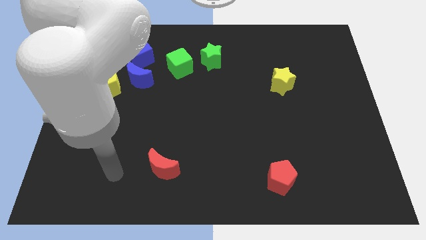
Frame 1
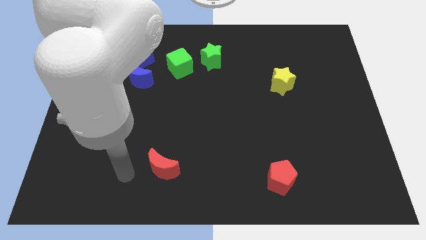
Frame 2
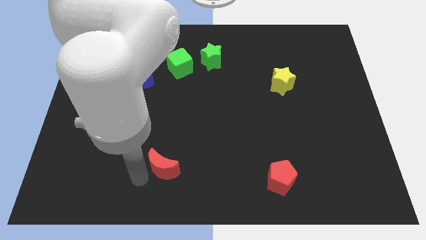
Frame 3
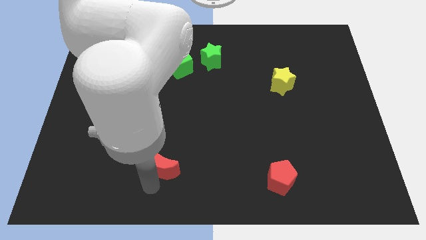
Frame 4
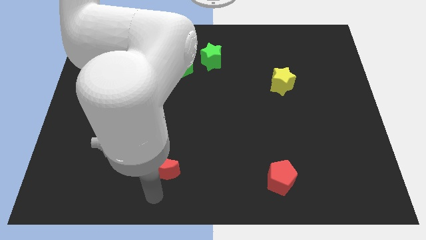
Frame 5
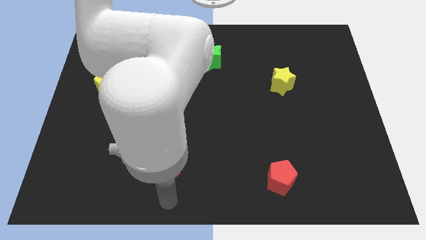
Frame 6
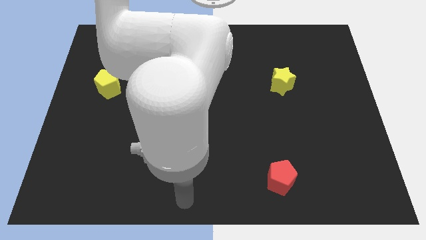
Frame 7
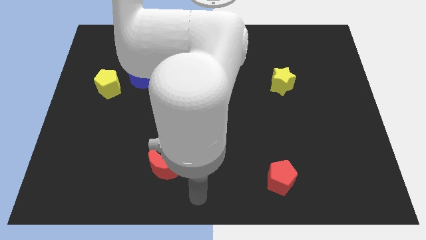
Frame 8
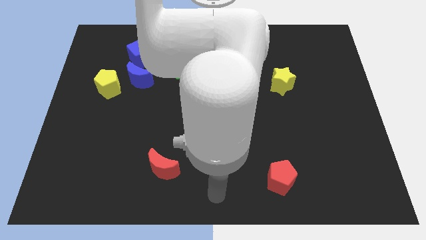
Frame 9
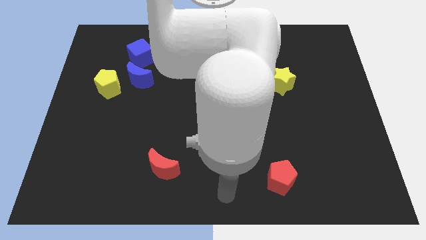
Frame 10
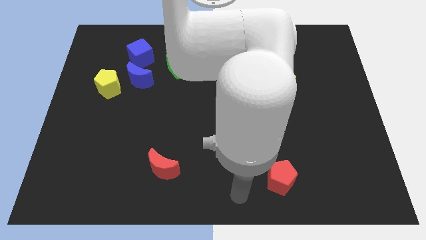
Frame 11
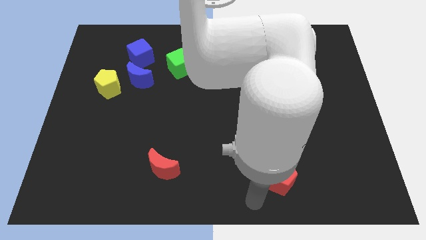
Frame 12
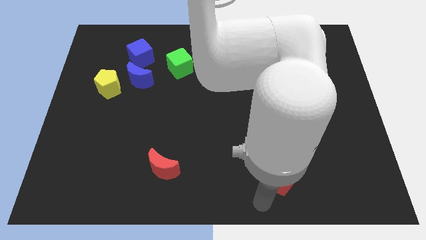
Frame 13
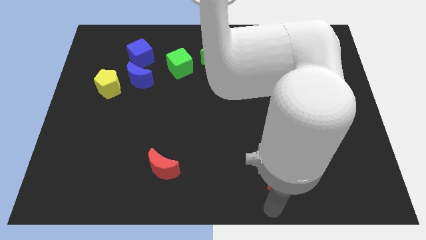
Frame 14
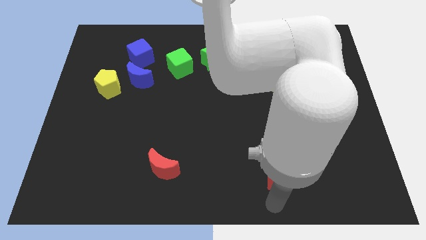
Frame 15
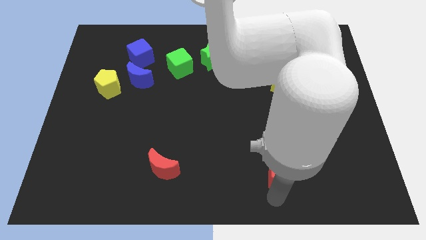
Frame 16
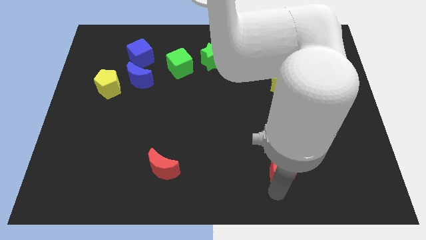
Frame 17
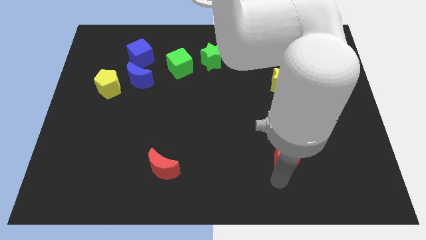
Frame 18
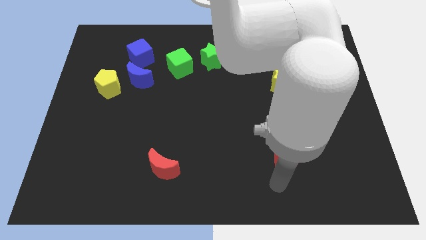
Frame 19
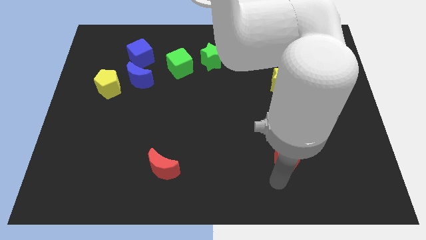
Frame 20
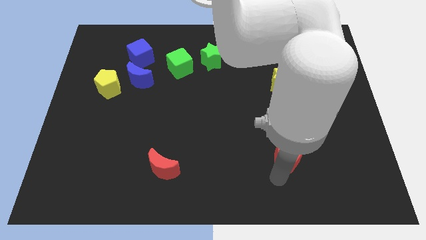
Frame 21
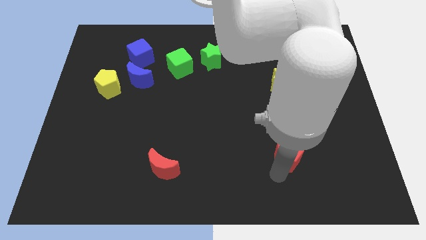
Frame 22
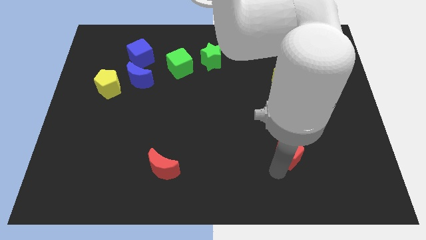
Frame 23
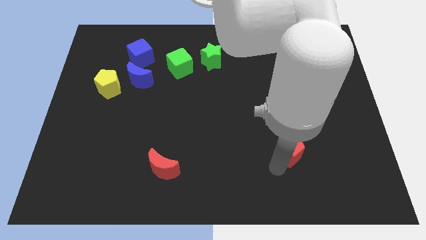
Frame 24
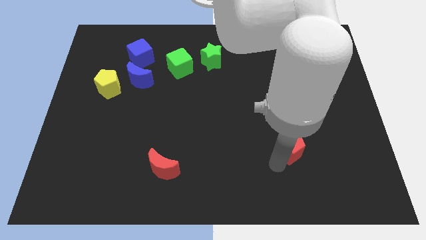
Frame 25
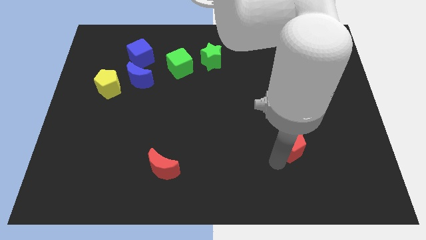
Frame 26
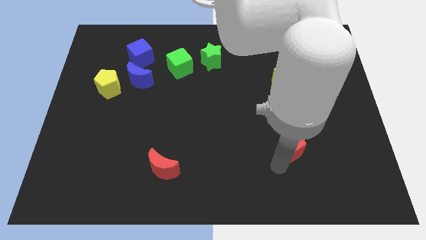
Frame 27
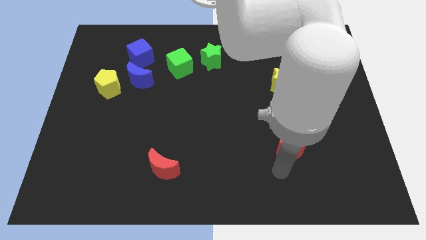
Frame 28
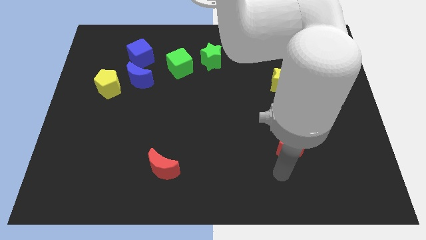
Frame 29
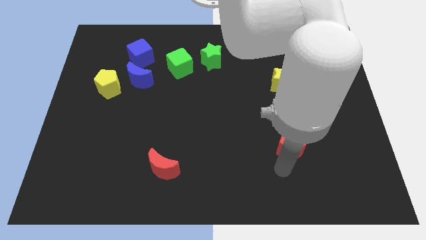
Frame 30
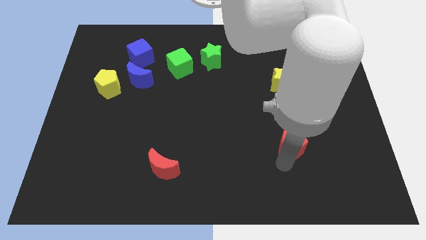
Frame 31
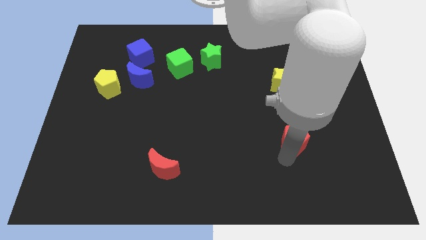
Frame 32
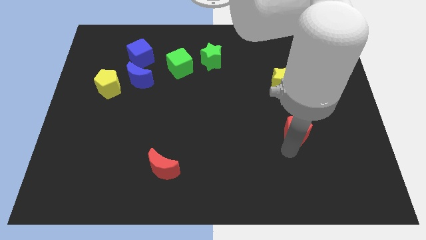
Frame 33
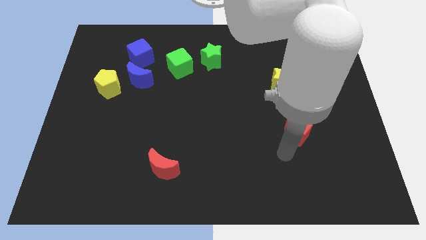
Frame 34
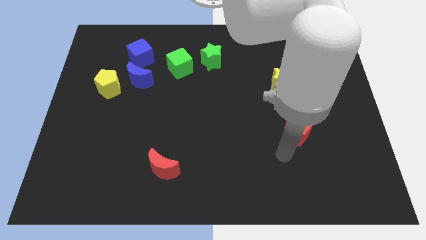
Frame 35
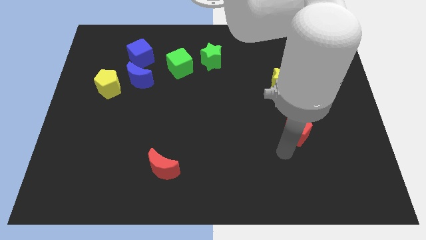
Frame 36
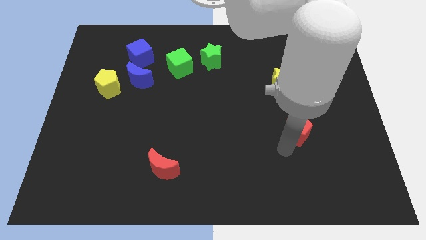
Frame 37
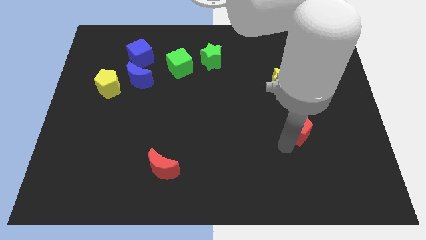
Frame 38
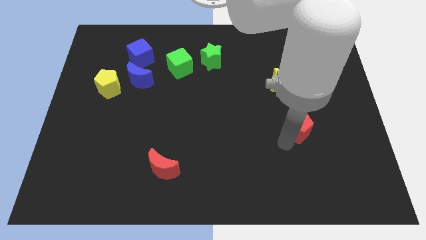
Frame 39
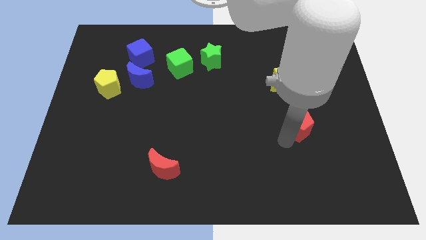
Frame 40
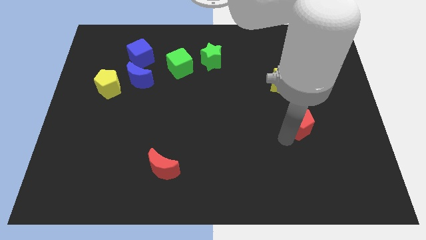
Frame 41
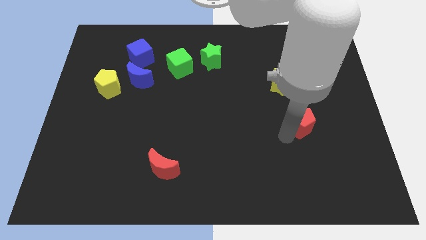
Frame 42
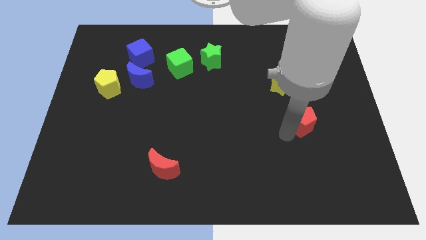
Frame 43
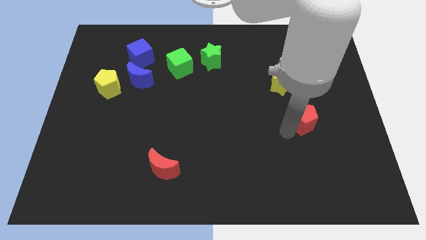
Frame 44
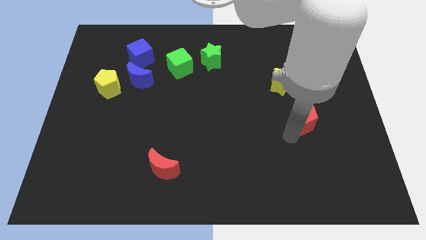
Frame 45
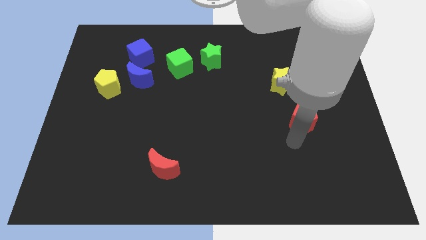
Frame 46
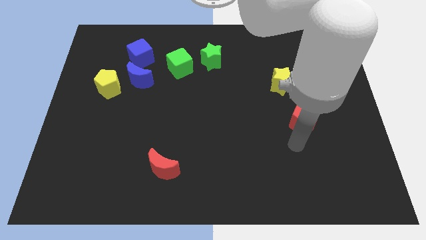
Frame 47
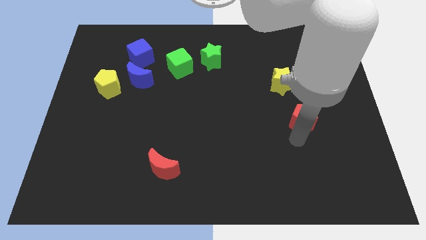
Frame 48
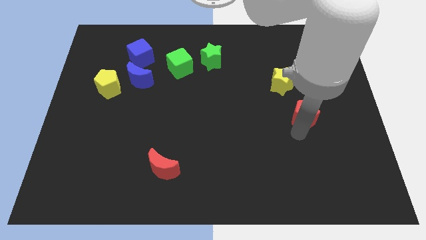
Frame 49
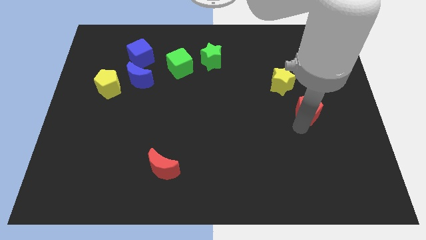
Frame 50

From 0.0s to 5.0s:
move the red pentagon to the bottom right side of the yellow star

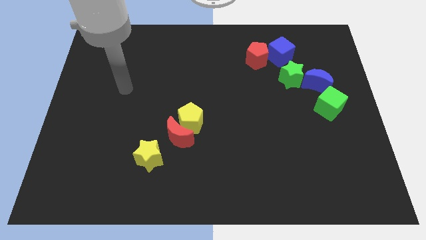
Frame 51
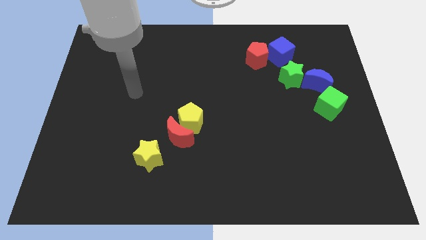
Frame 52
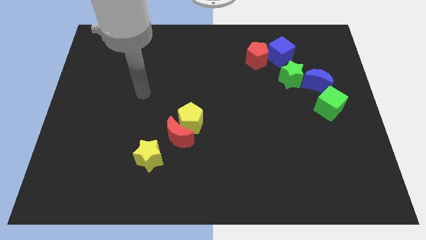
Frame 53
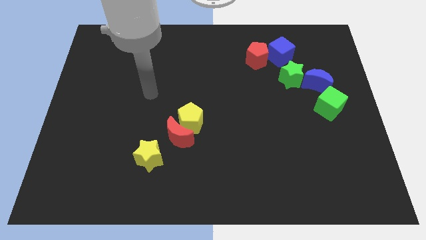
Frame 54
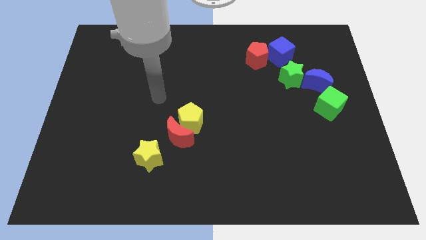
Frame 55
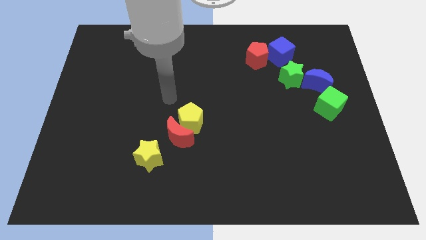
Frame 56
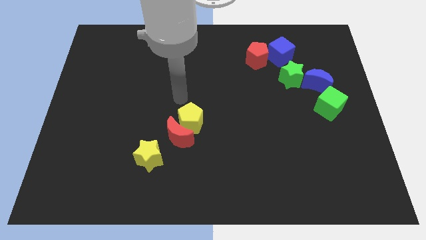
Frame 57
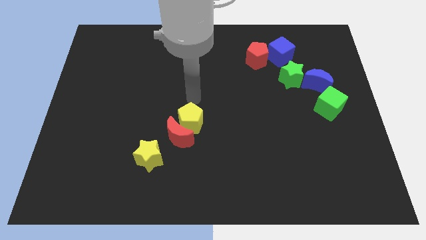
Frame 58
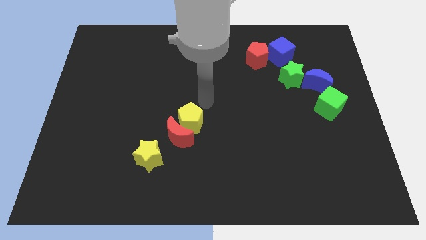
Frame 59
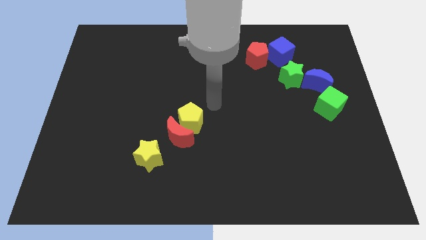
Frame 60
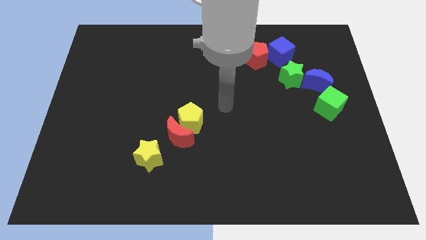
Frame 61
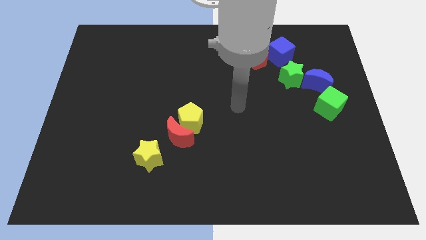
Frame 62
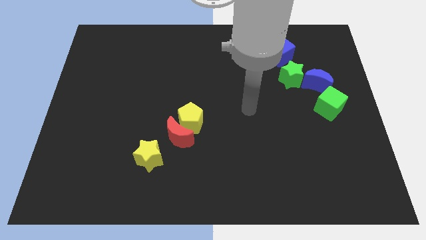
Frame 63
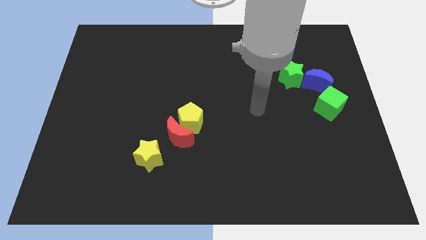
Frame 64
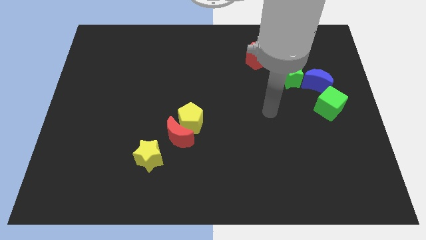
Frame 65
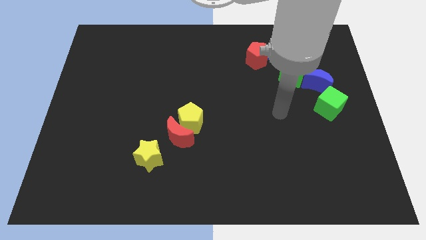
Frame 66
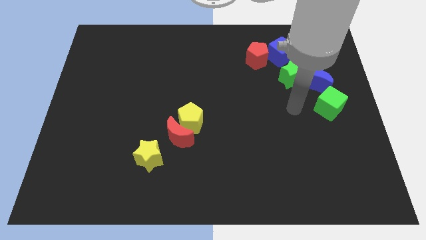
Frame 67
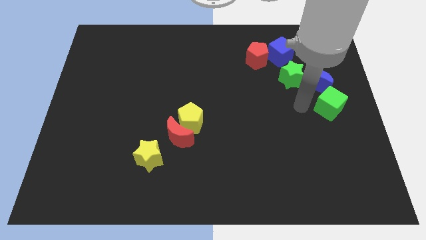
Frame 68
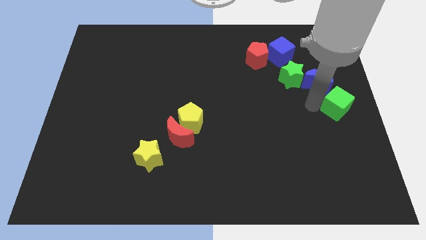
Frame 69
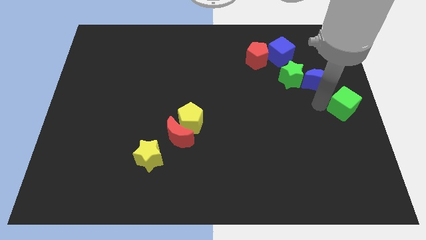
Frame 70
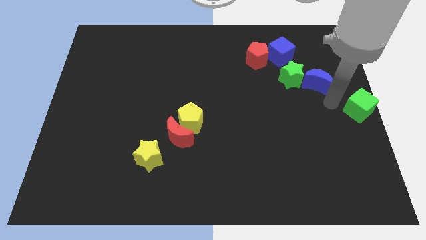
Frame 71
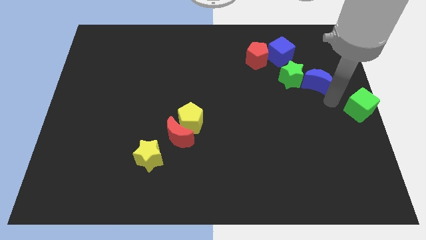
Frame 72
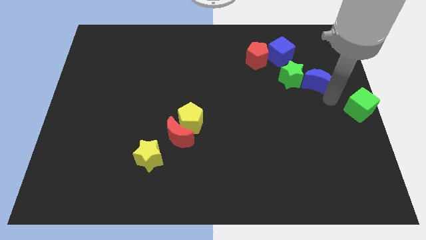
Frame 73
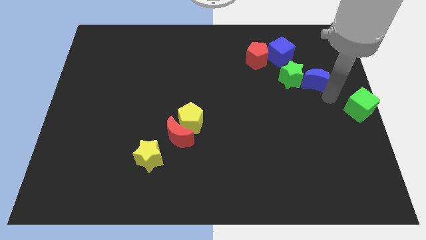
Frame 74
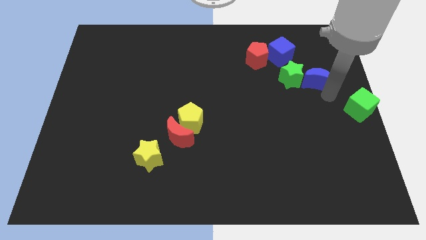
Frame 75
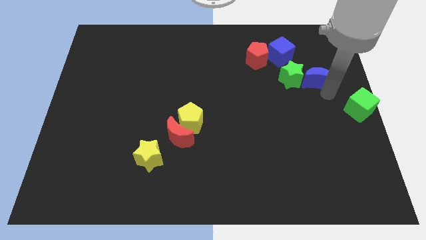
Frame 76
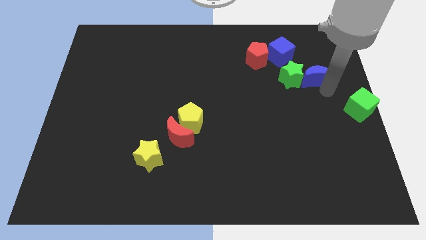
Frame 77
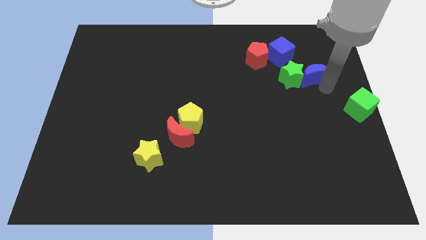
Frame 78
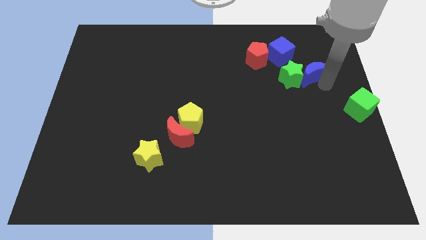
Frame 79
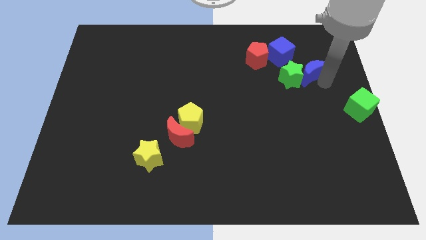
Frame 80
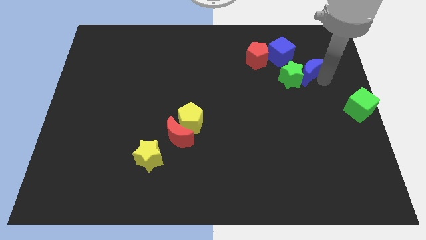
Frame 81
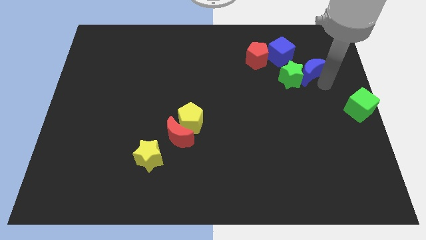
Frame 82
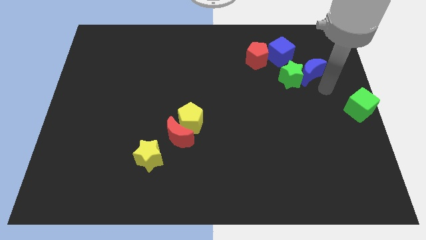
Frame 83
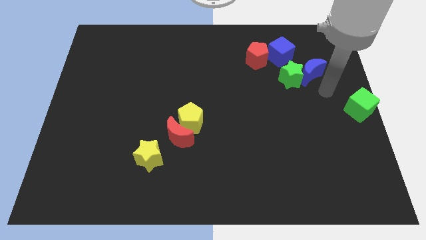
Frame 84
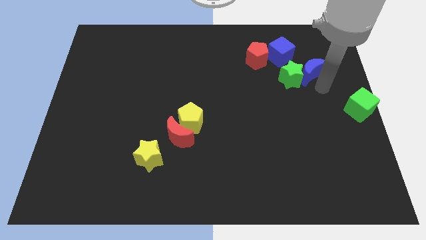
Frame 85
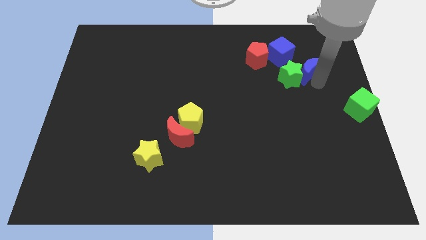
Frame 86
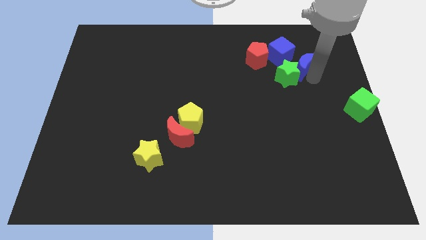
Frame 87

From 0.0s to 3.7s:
push the blue moon right of the red pentagon
